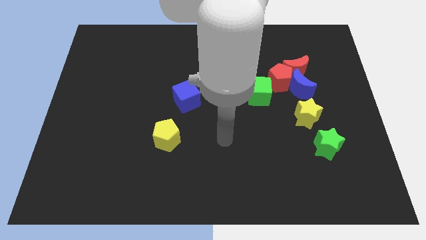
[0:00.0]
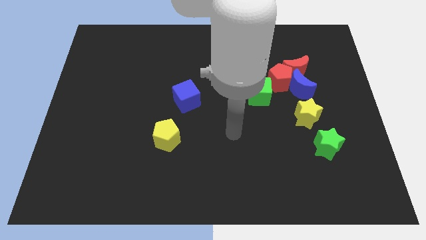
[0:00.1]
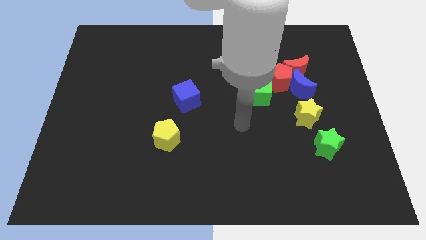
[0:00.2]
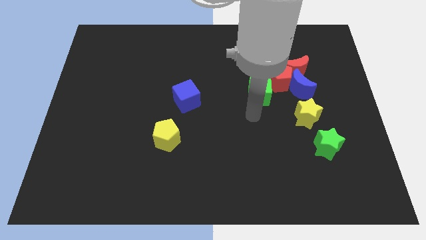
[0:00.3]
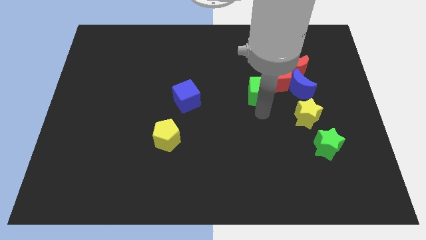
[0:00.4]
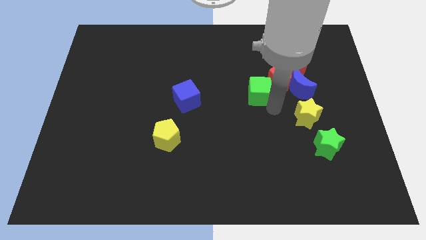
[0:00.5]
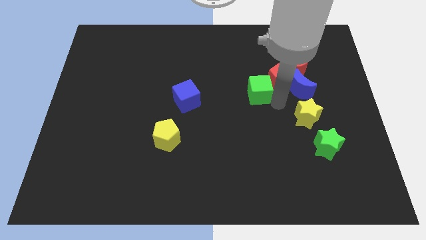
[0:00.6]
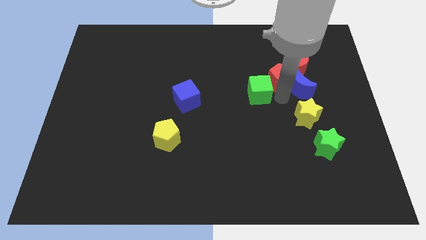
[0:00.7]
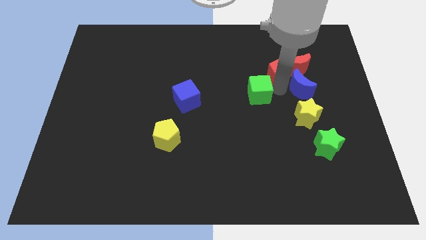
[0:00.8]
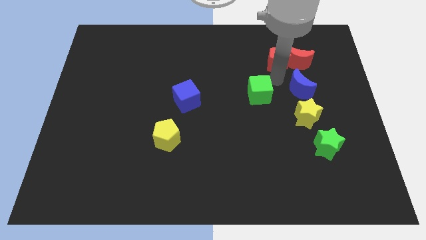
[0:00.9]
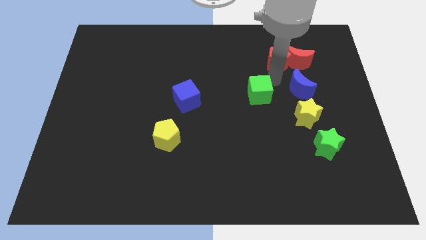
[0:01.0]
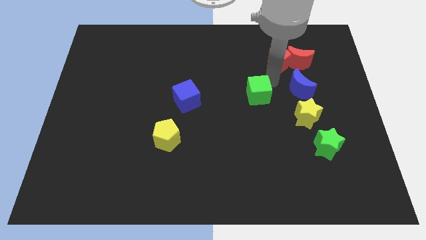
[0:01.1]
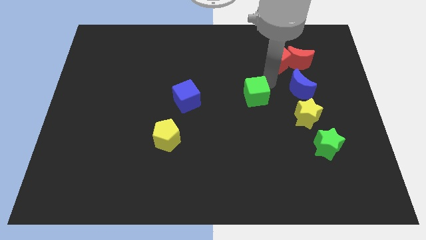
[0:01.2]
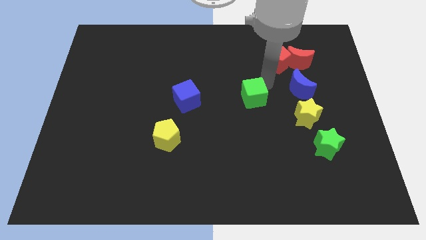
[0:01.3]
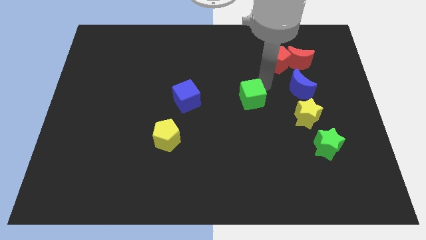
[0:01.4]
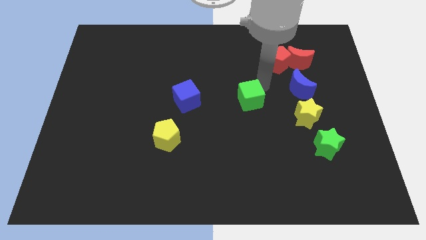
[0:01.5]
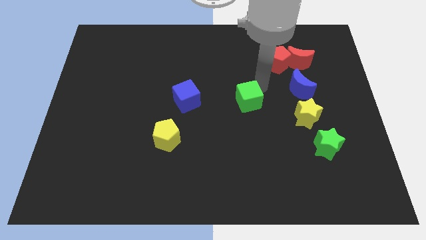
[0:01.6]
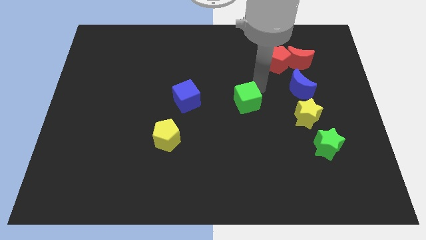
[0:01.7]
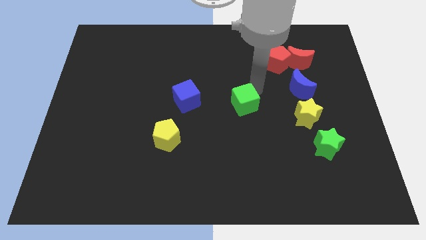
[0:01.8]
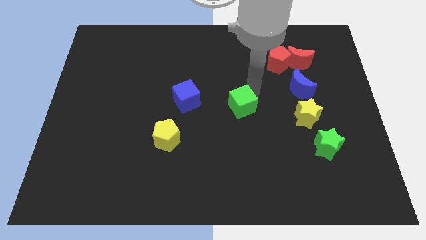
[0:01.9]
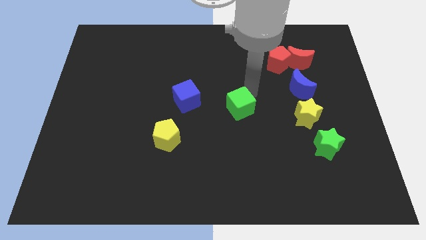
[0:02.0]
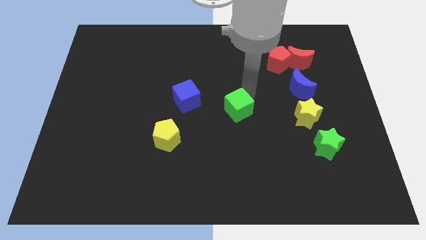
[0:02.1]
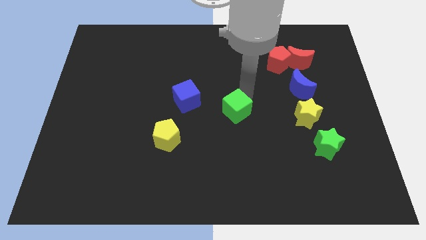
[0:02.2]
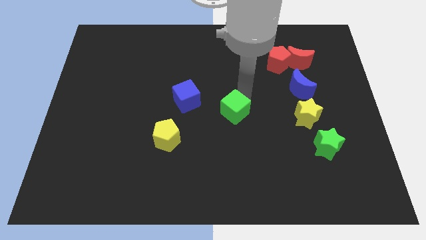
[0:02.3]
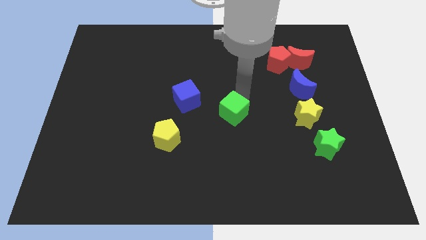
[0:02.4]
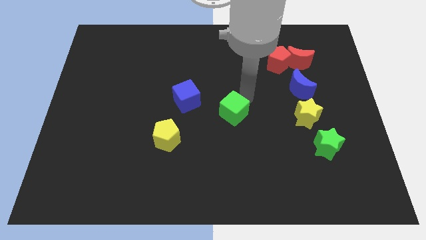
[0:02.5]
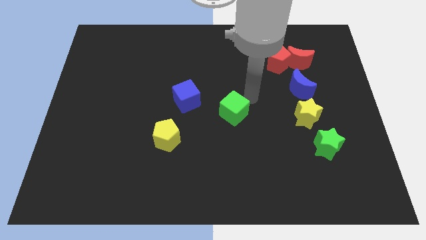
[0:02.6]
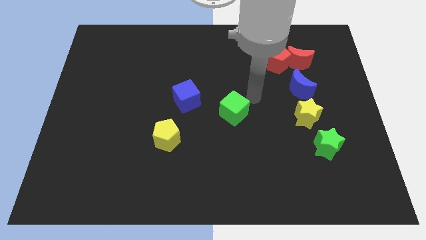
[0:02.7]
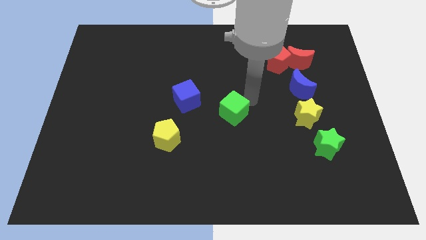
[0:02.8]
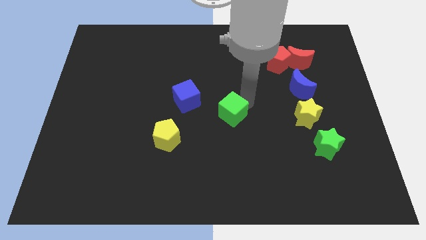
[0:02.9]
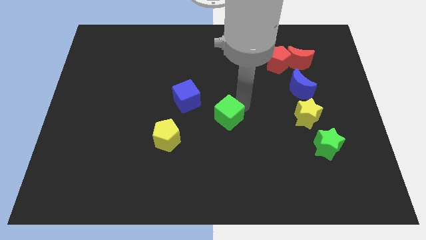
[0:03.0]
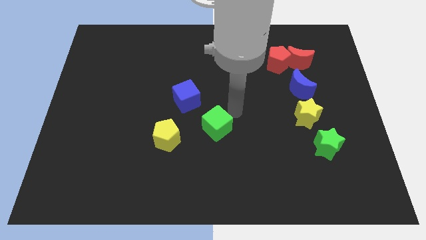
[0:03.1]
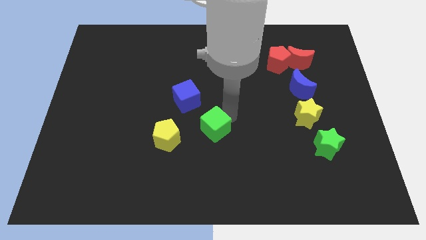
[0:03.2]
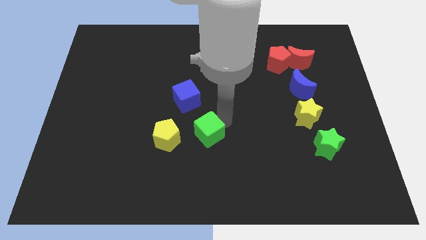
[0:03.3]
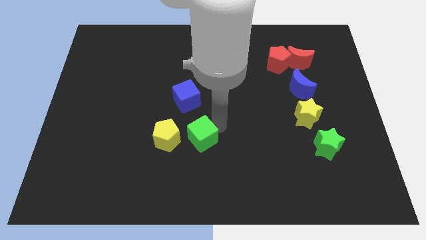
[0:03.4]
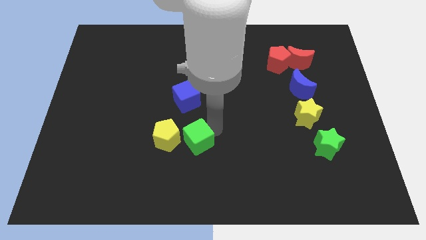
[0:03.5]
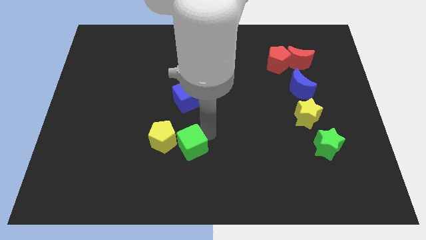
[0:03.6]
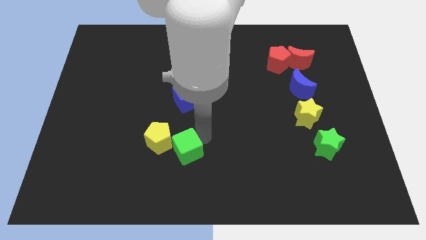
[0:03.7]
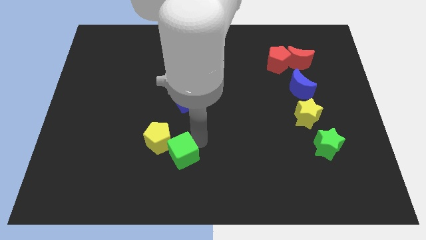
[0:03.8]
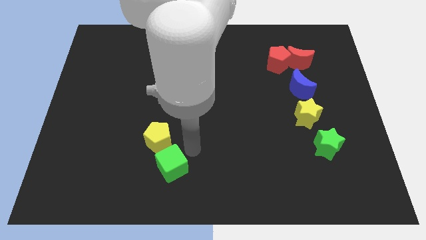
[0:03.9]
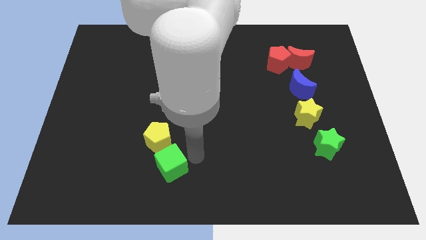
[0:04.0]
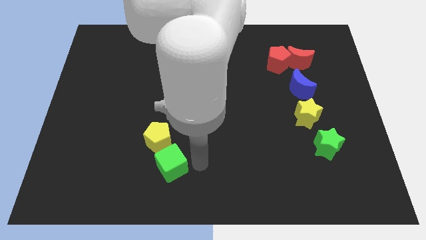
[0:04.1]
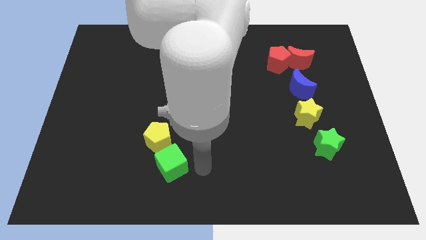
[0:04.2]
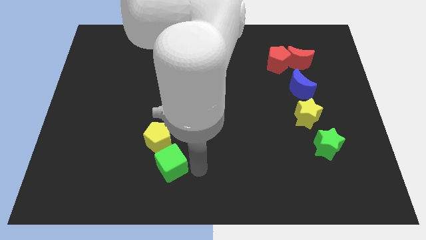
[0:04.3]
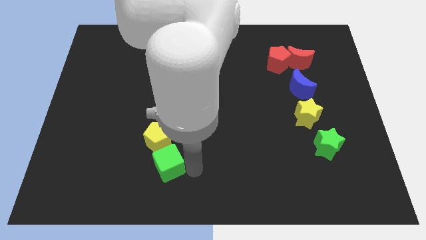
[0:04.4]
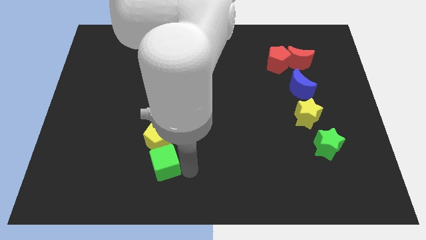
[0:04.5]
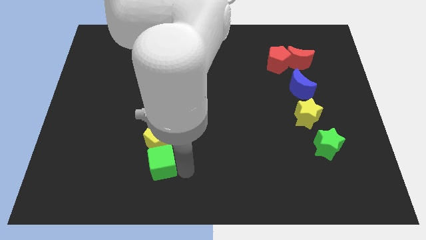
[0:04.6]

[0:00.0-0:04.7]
push the green cube diagonally down and to the left of the yellow pentagon

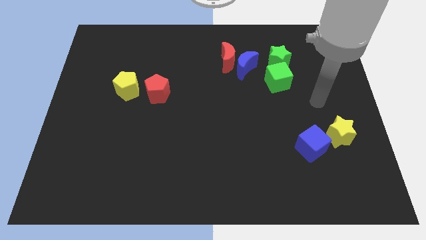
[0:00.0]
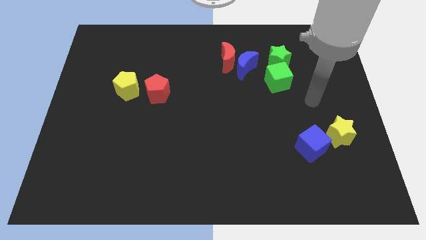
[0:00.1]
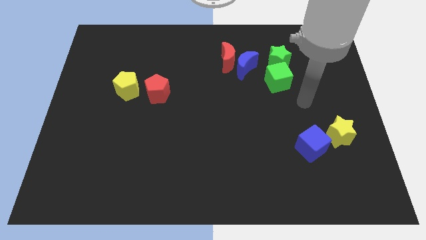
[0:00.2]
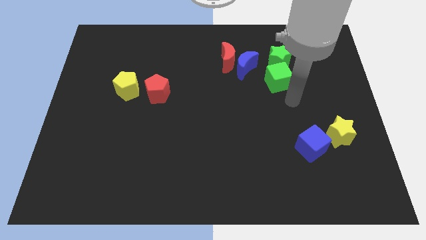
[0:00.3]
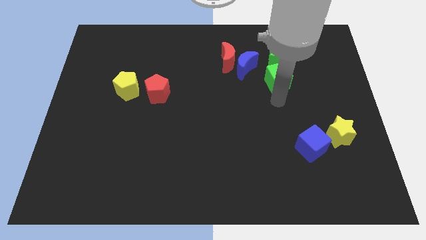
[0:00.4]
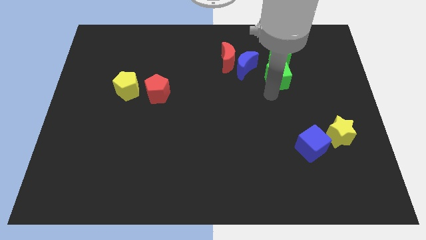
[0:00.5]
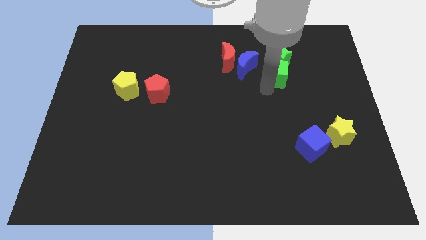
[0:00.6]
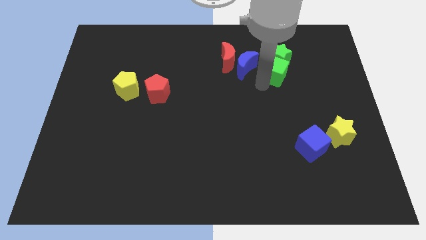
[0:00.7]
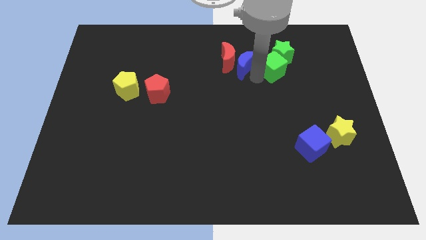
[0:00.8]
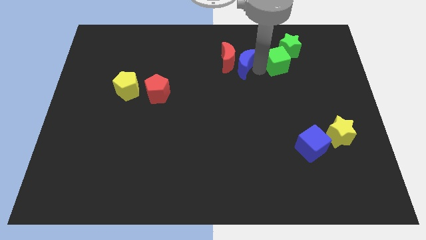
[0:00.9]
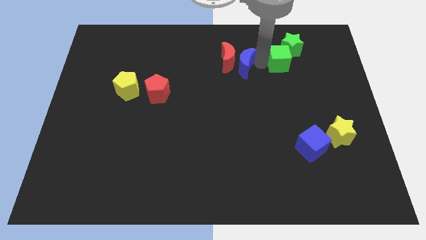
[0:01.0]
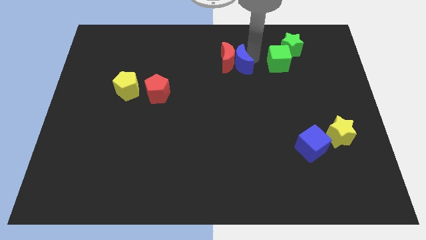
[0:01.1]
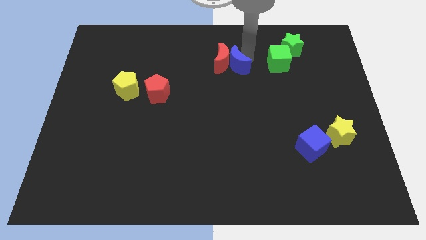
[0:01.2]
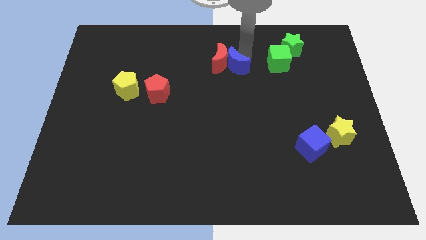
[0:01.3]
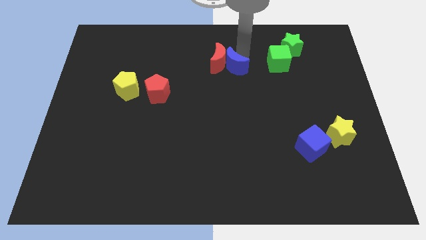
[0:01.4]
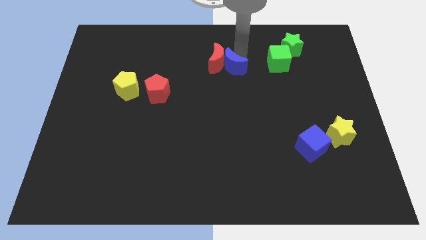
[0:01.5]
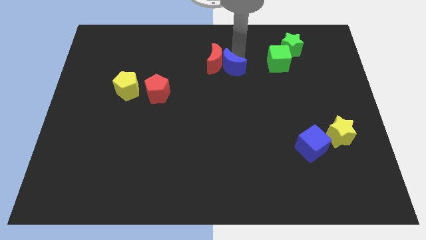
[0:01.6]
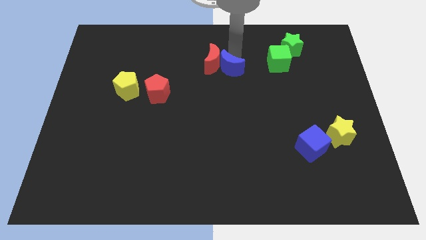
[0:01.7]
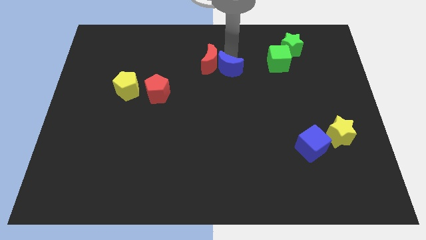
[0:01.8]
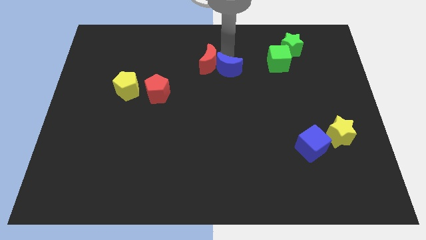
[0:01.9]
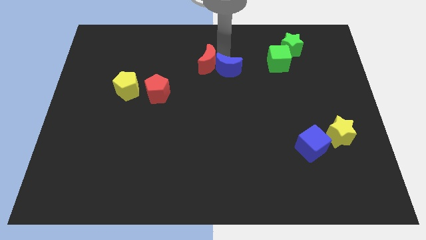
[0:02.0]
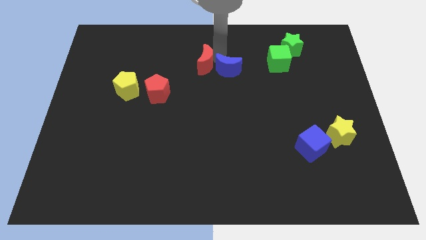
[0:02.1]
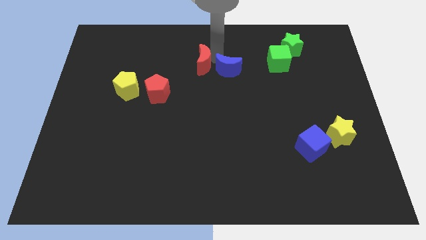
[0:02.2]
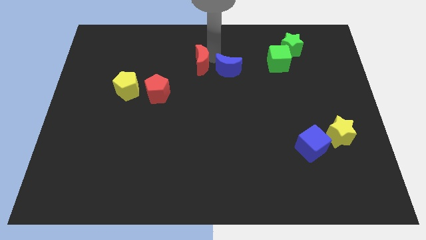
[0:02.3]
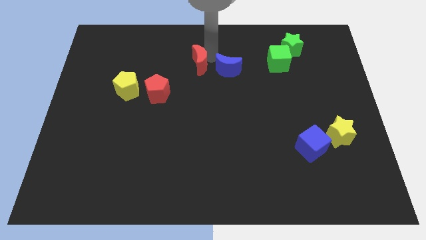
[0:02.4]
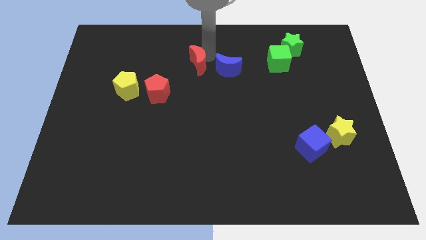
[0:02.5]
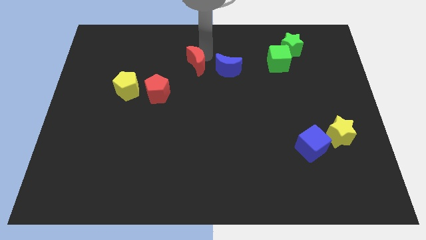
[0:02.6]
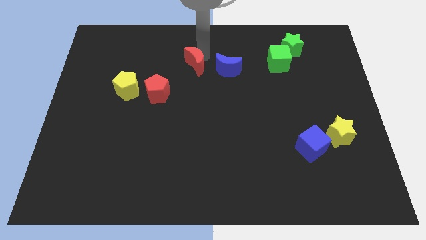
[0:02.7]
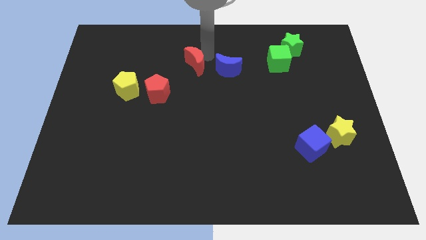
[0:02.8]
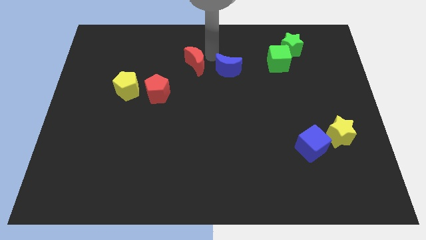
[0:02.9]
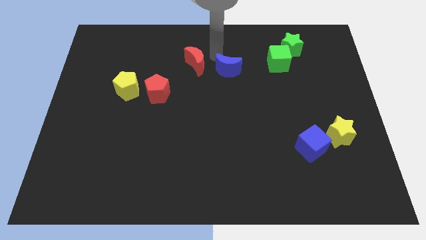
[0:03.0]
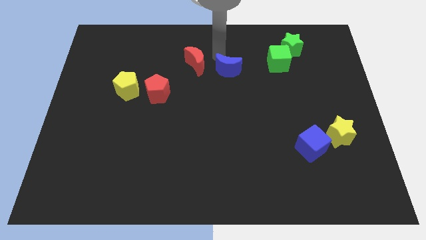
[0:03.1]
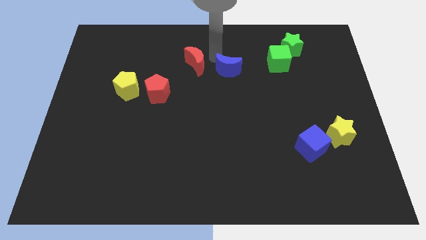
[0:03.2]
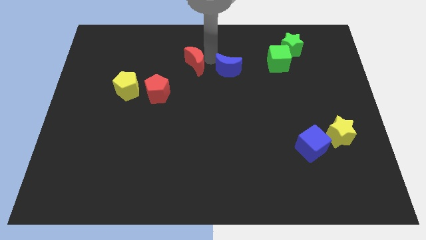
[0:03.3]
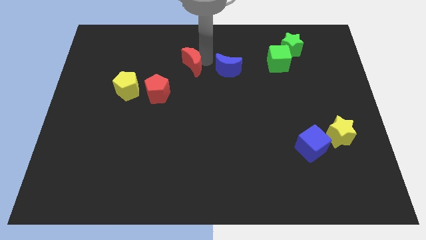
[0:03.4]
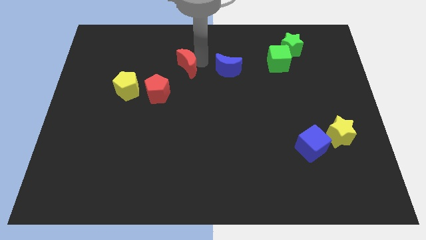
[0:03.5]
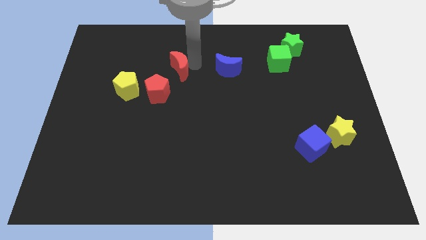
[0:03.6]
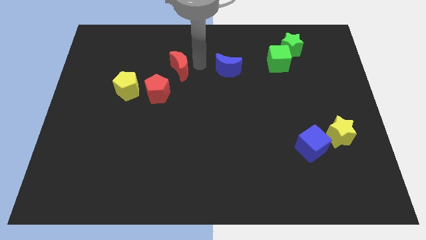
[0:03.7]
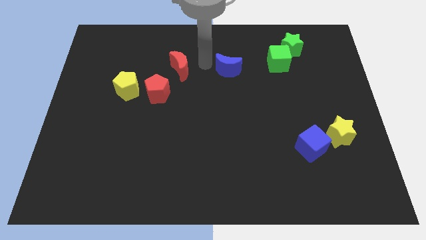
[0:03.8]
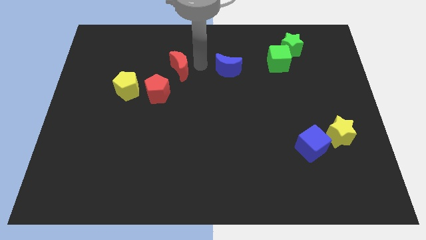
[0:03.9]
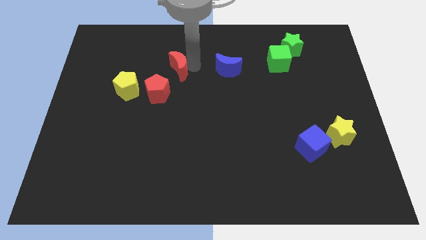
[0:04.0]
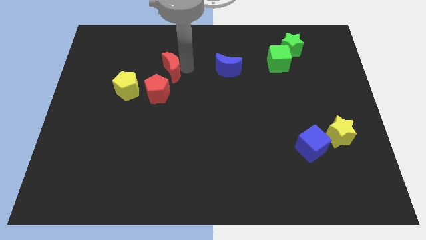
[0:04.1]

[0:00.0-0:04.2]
move the red moon diagonally up and to the right of the yellow pentagon
